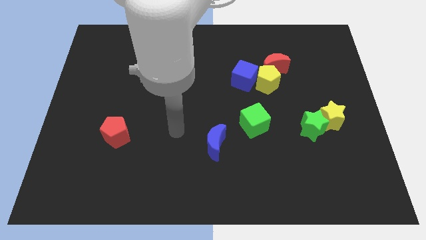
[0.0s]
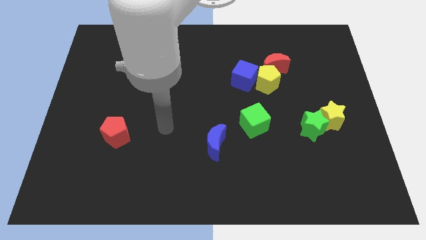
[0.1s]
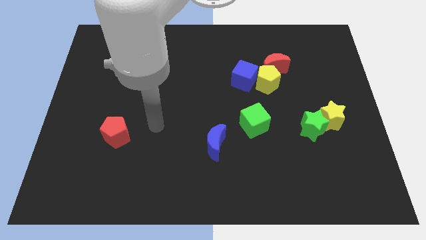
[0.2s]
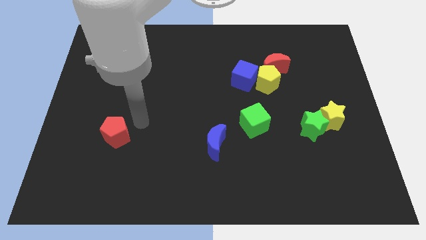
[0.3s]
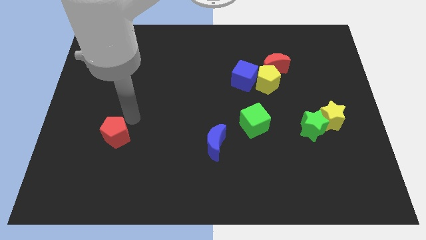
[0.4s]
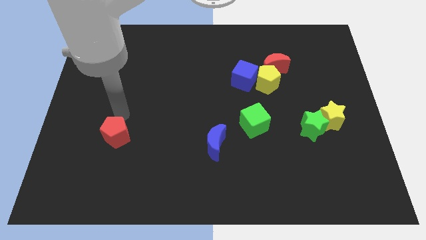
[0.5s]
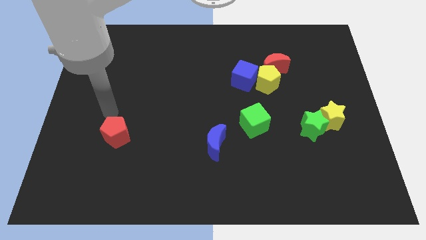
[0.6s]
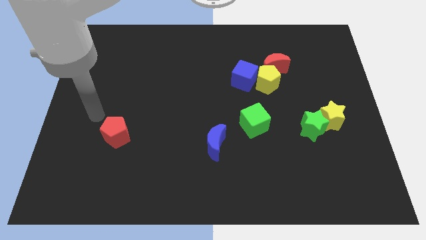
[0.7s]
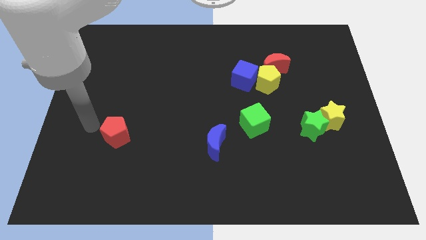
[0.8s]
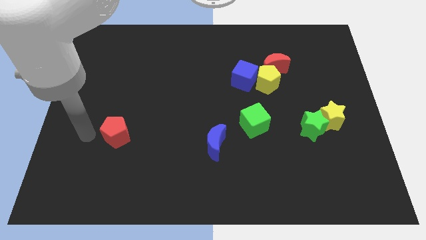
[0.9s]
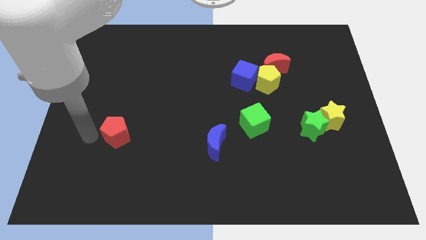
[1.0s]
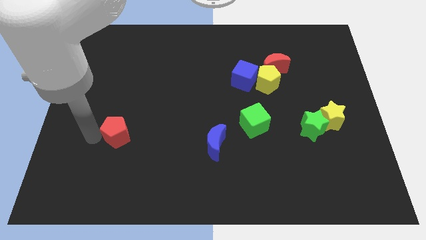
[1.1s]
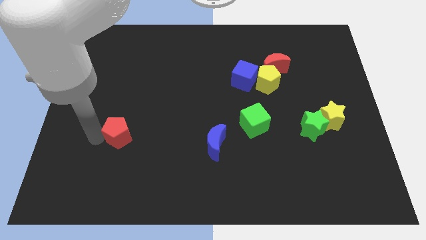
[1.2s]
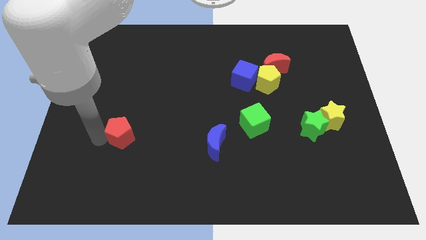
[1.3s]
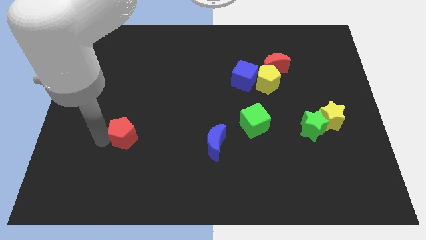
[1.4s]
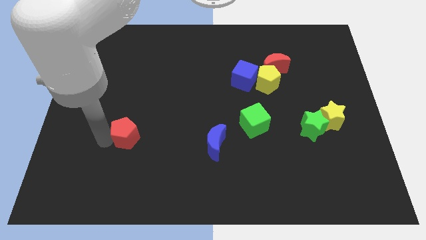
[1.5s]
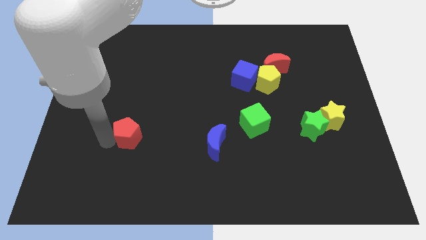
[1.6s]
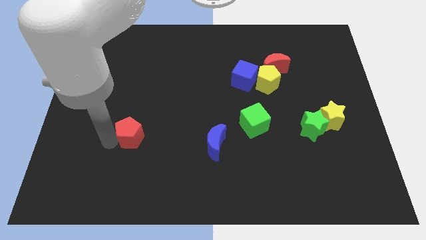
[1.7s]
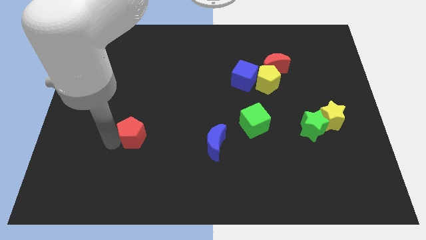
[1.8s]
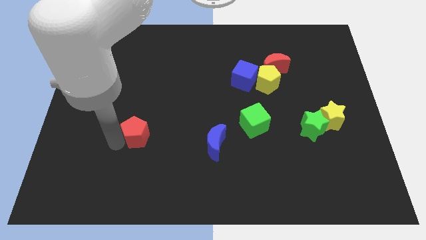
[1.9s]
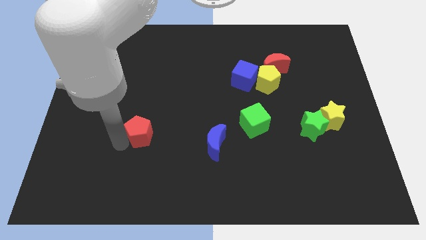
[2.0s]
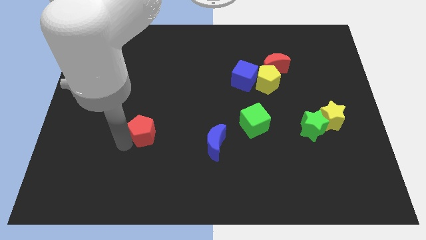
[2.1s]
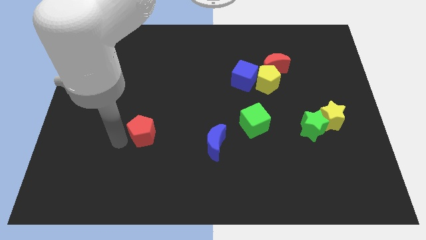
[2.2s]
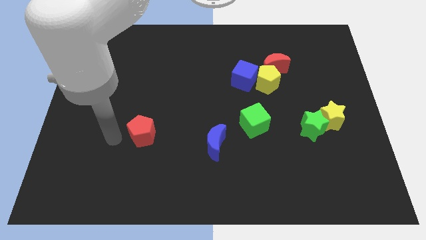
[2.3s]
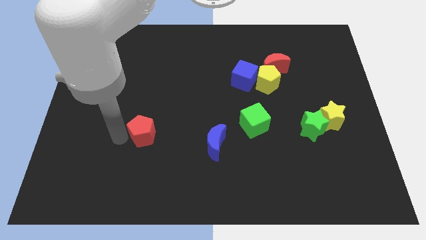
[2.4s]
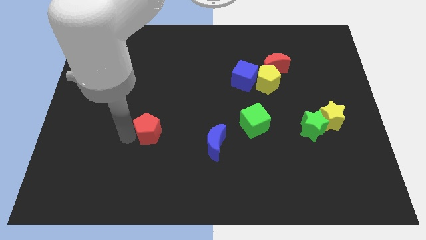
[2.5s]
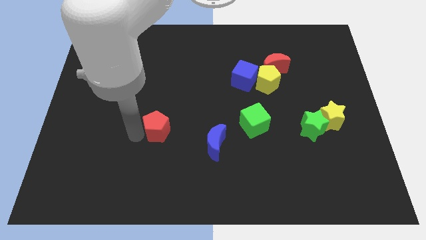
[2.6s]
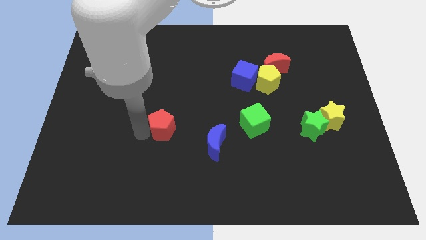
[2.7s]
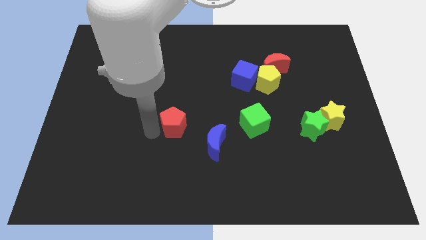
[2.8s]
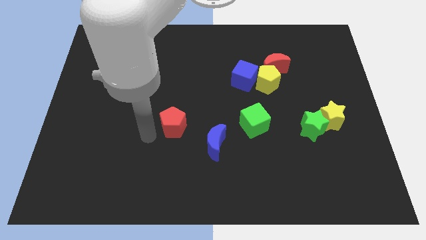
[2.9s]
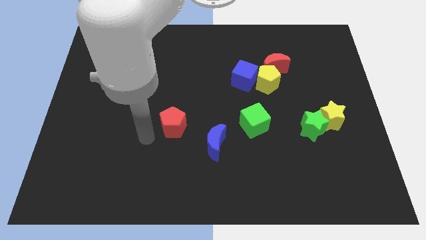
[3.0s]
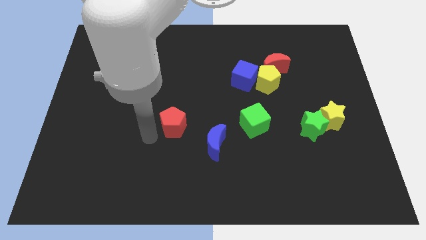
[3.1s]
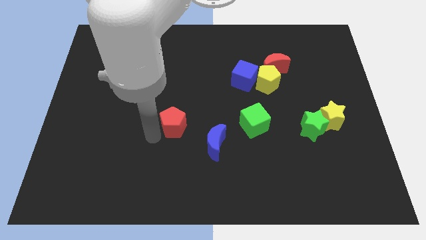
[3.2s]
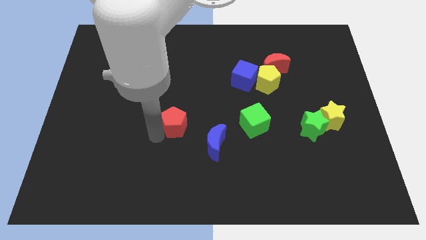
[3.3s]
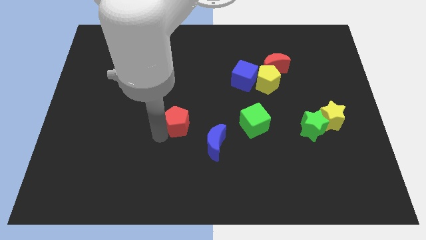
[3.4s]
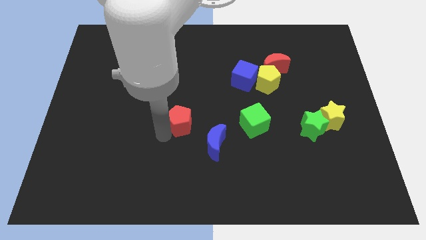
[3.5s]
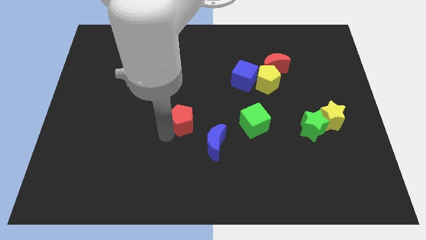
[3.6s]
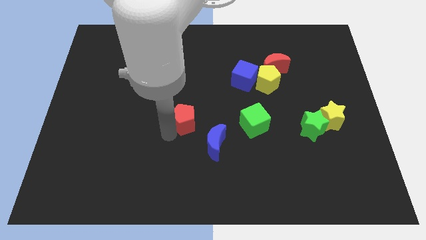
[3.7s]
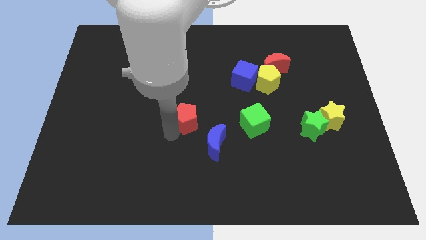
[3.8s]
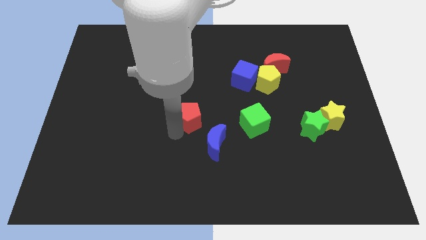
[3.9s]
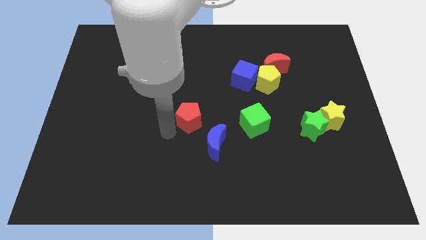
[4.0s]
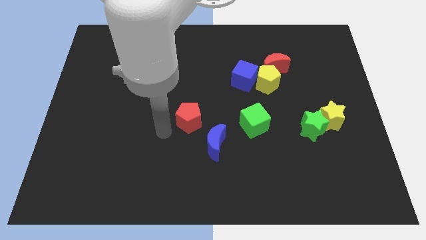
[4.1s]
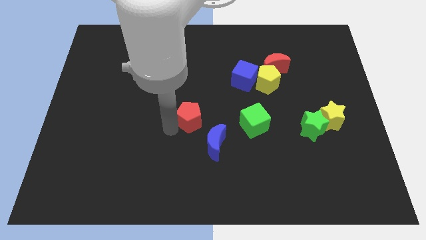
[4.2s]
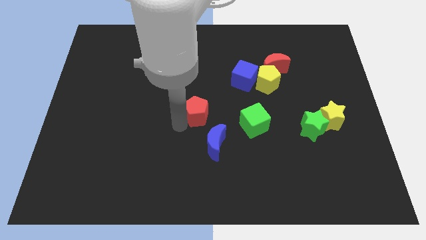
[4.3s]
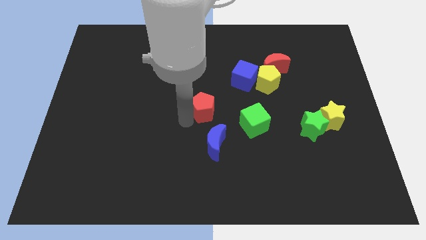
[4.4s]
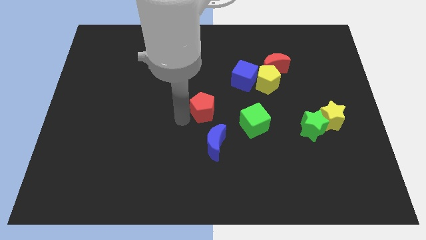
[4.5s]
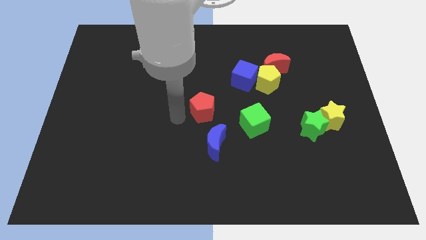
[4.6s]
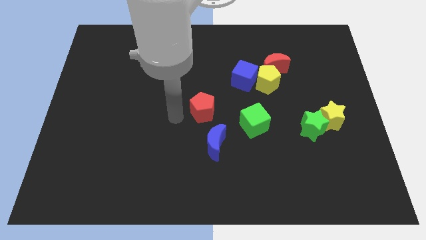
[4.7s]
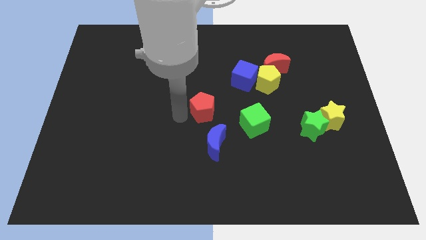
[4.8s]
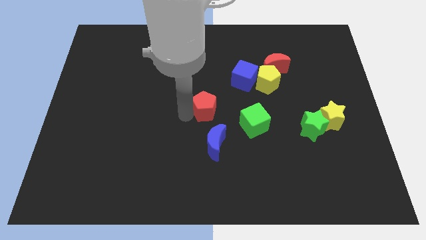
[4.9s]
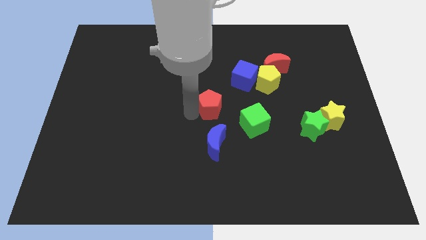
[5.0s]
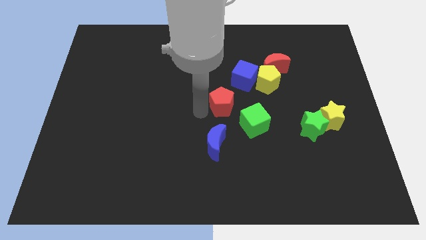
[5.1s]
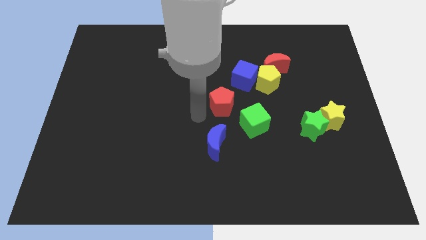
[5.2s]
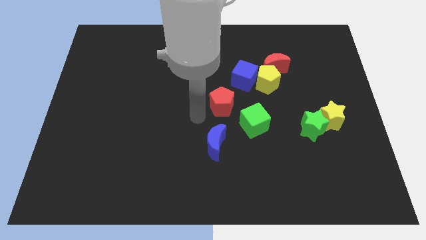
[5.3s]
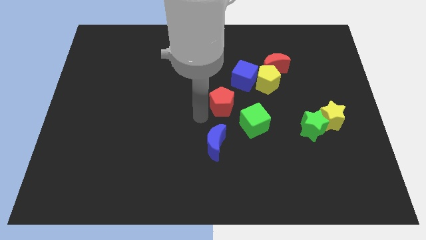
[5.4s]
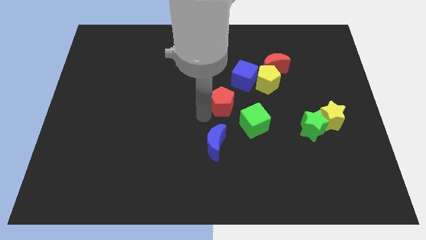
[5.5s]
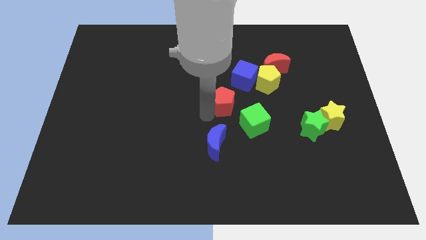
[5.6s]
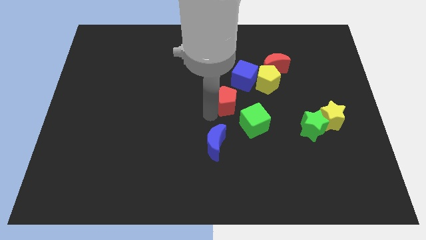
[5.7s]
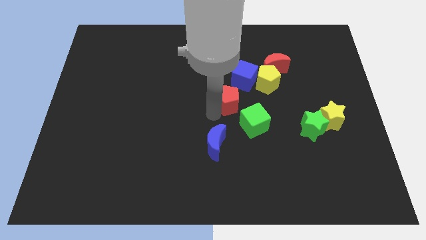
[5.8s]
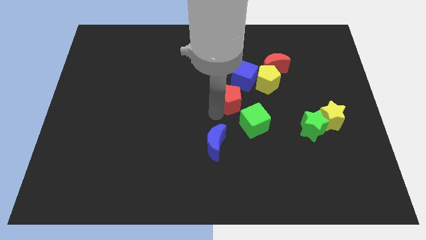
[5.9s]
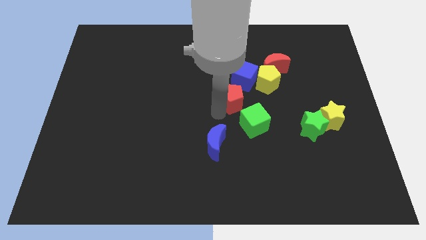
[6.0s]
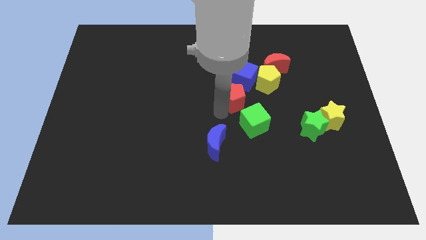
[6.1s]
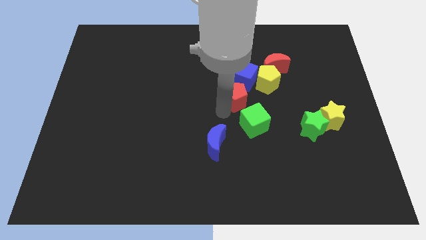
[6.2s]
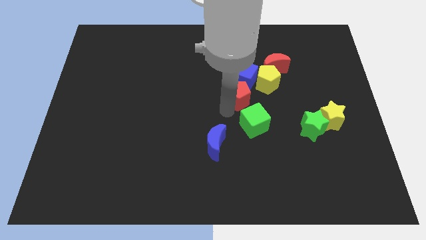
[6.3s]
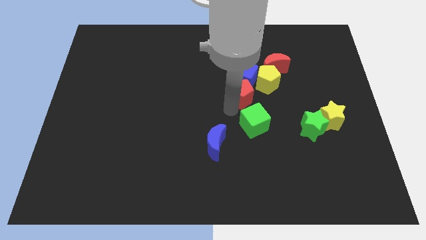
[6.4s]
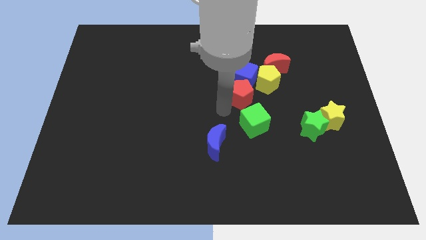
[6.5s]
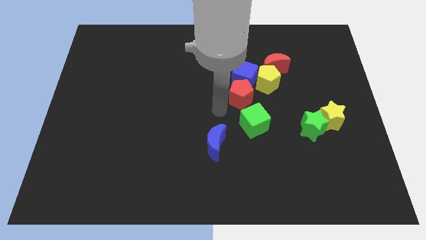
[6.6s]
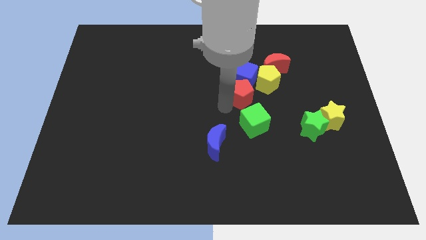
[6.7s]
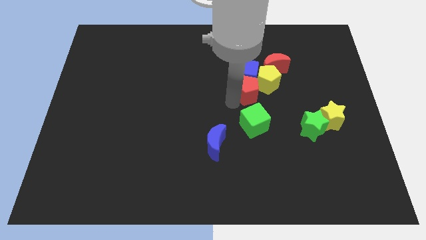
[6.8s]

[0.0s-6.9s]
slide the red pentagon close to the yellow pentagon
